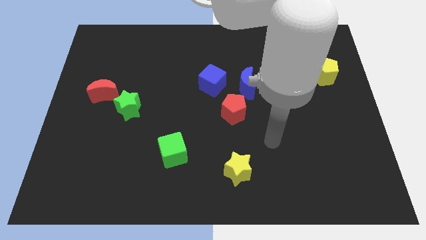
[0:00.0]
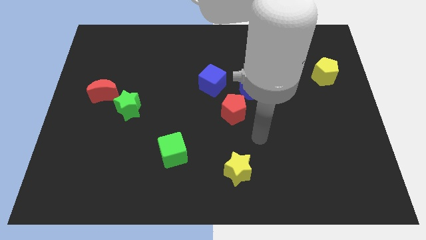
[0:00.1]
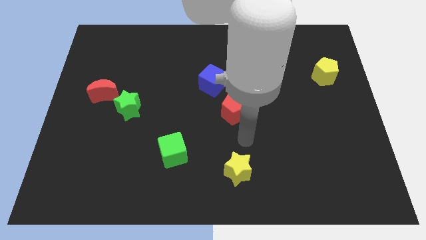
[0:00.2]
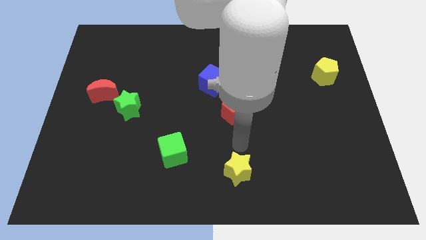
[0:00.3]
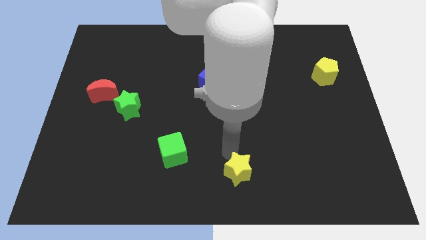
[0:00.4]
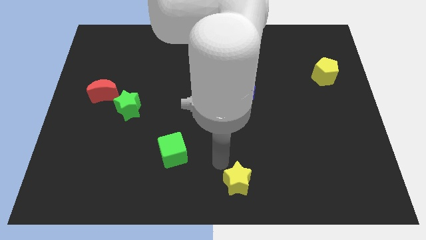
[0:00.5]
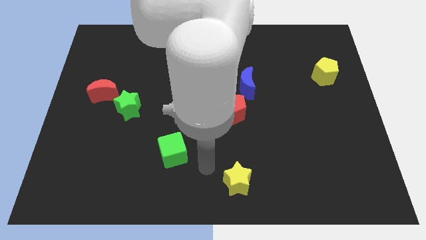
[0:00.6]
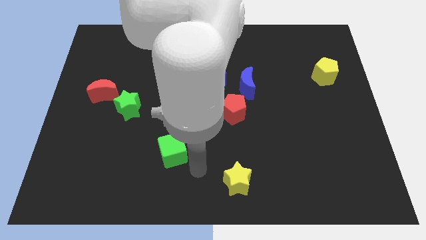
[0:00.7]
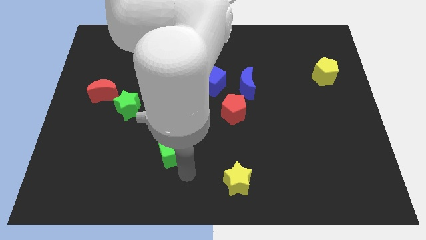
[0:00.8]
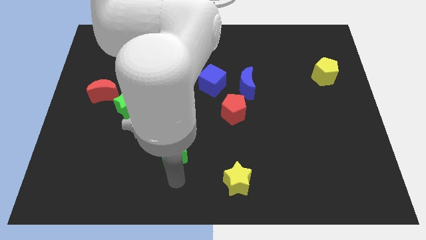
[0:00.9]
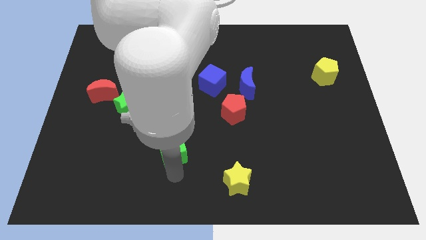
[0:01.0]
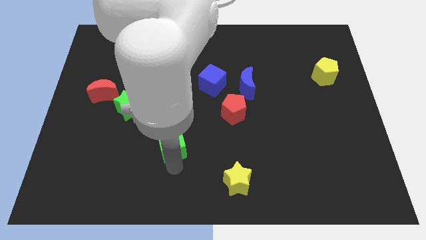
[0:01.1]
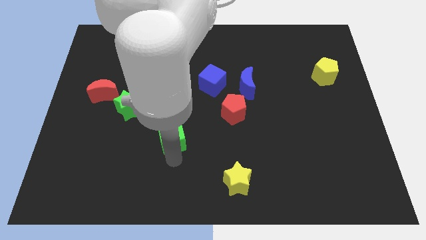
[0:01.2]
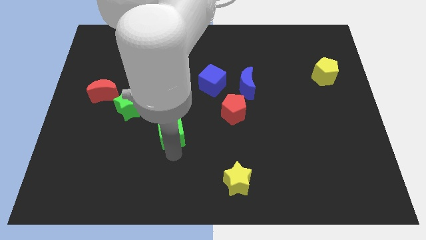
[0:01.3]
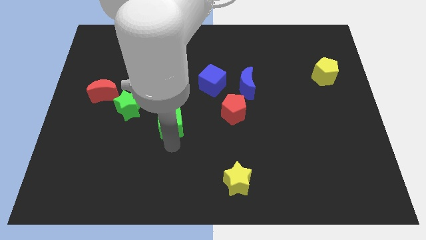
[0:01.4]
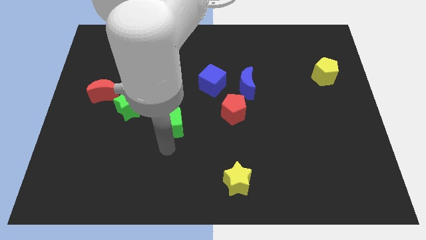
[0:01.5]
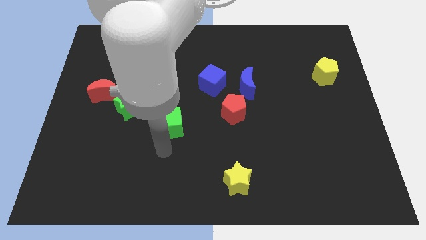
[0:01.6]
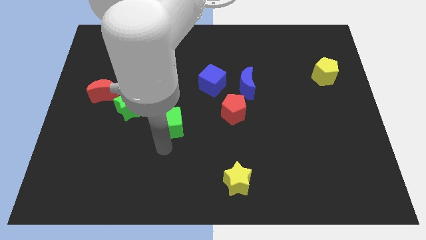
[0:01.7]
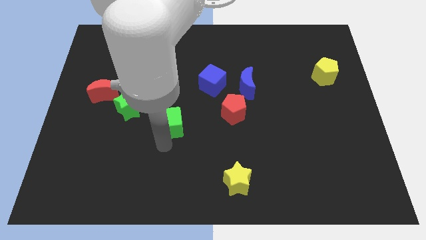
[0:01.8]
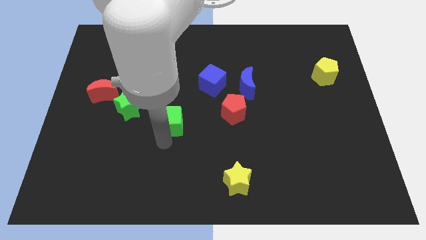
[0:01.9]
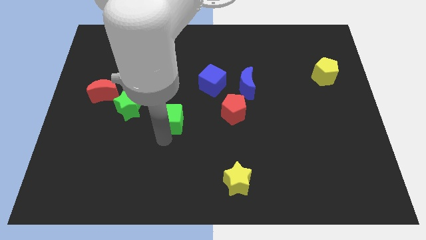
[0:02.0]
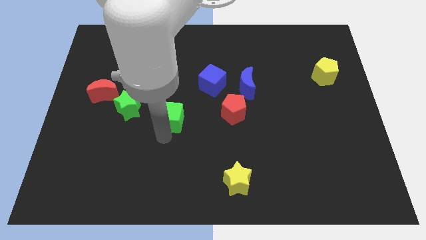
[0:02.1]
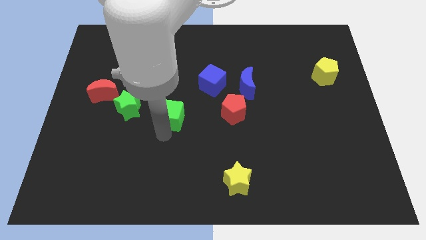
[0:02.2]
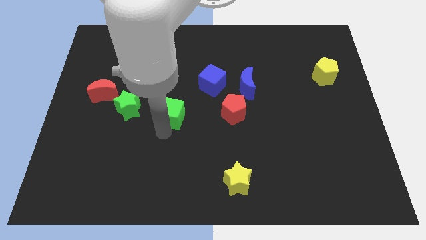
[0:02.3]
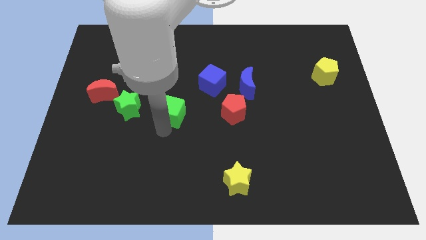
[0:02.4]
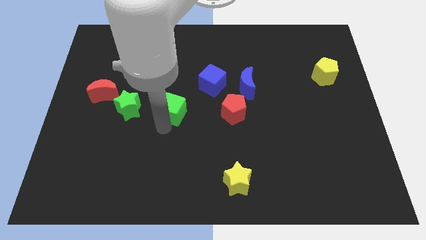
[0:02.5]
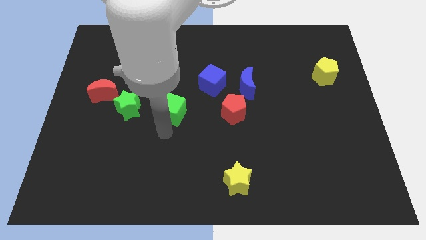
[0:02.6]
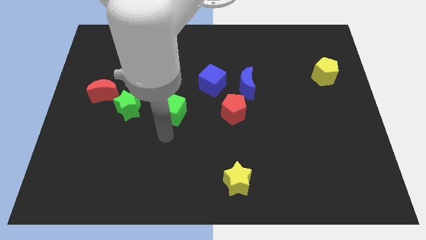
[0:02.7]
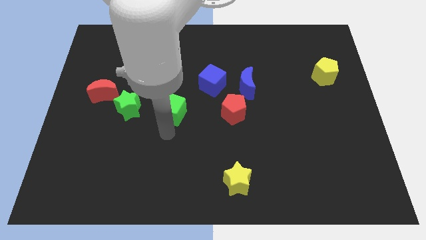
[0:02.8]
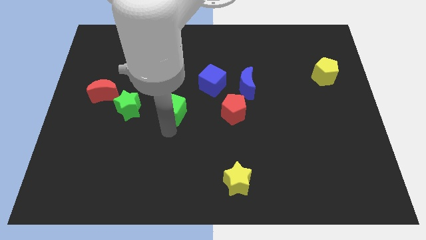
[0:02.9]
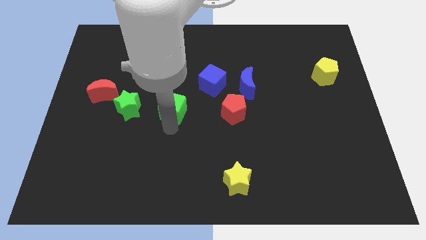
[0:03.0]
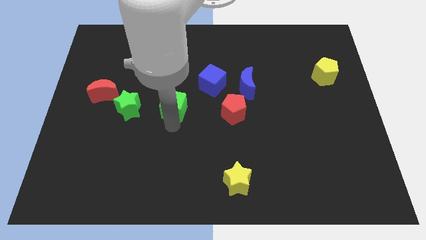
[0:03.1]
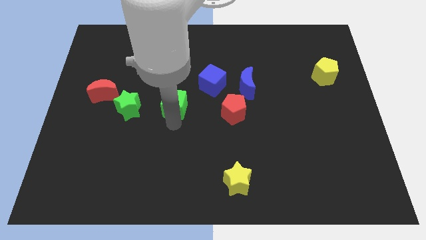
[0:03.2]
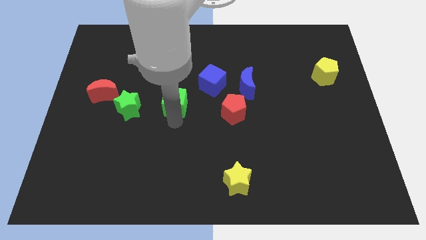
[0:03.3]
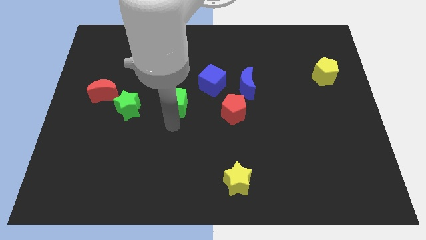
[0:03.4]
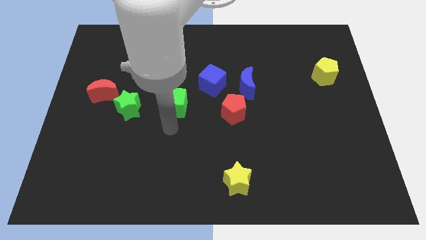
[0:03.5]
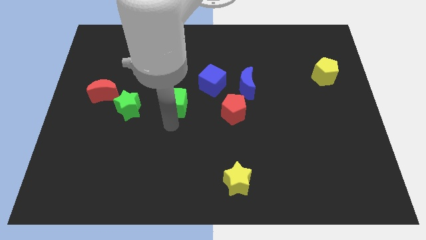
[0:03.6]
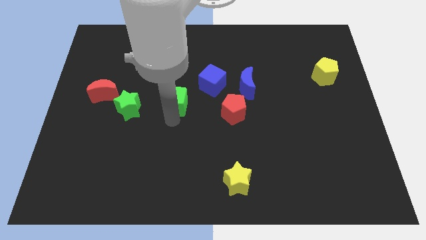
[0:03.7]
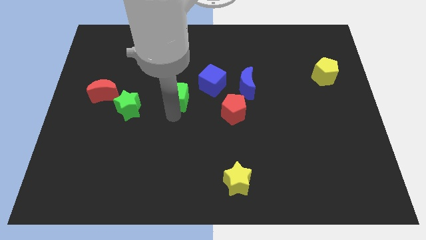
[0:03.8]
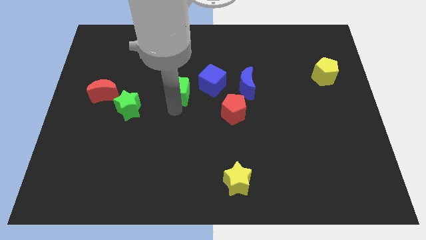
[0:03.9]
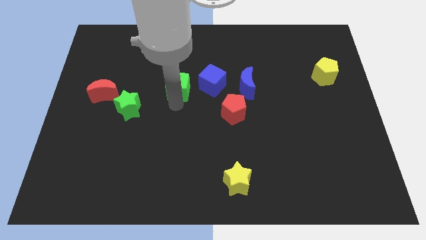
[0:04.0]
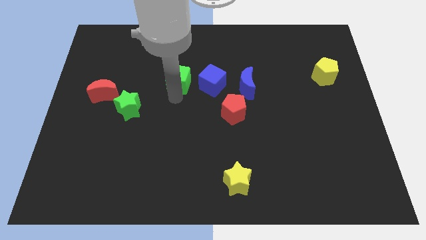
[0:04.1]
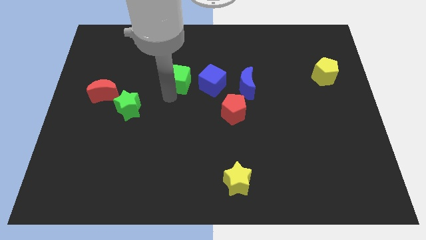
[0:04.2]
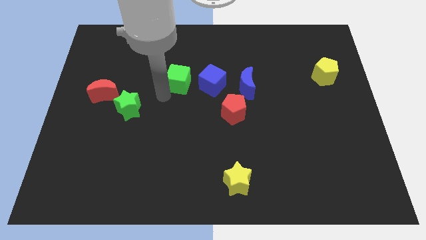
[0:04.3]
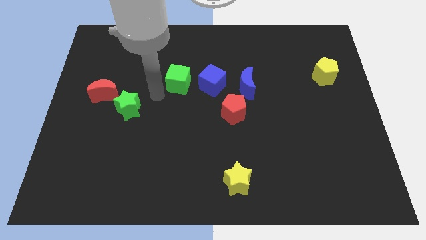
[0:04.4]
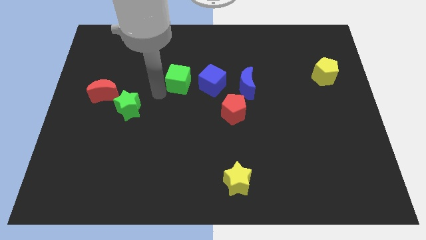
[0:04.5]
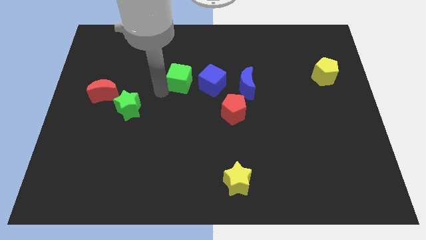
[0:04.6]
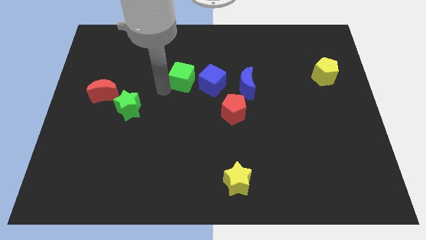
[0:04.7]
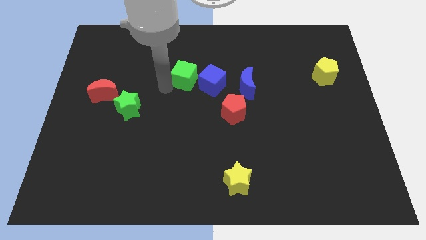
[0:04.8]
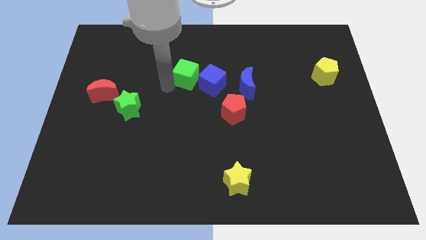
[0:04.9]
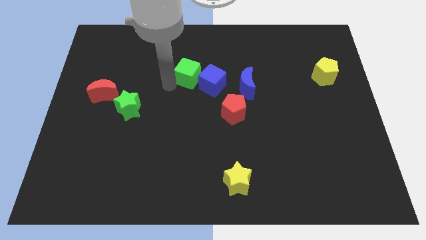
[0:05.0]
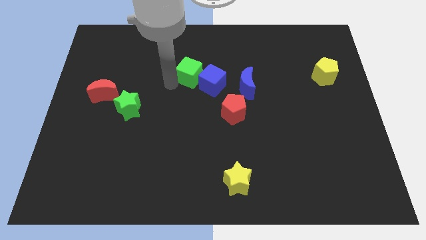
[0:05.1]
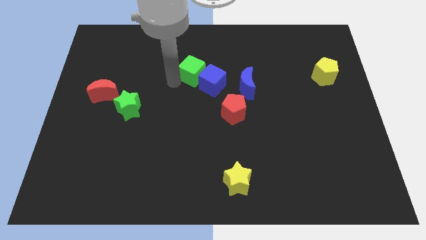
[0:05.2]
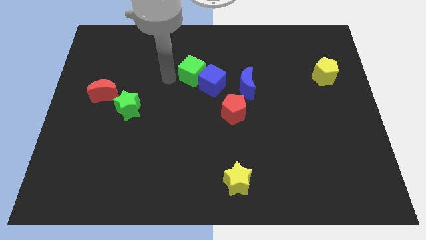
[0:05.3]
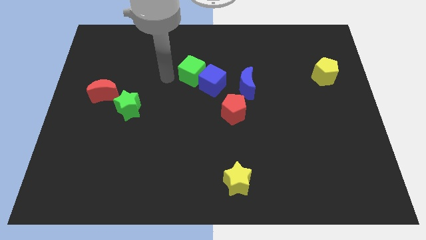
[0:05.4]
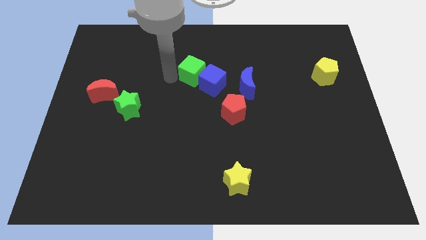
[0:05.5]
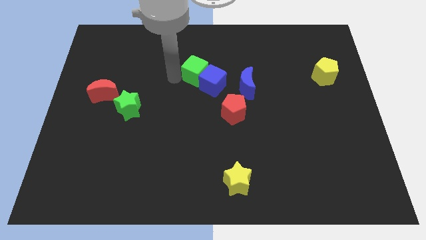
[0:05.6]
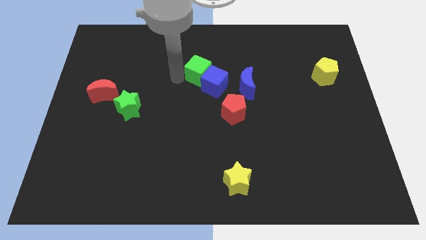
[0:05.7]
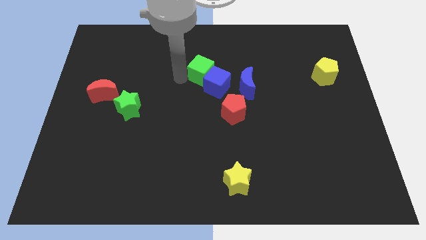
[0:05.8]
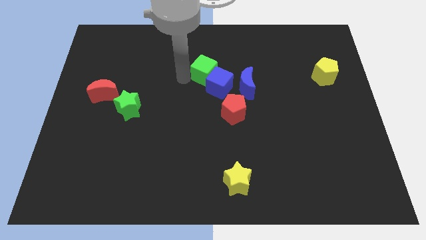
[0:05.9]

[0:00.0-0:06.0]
put the green cube to the top left side of the blue moon

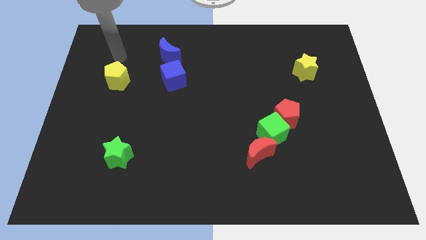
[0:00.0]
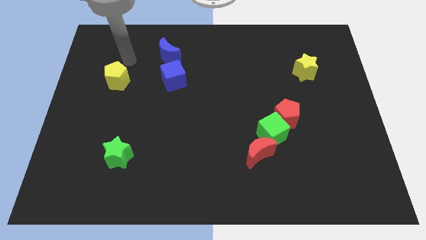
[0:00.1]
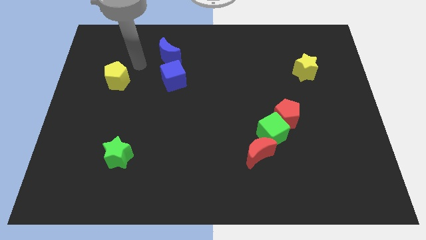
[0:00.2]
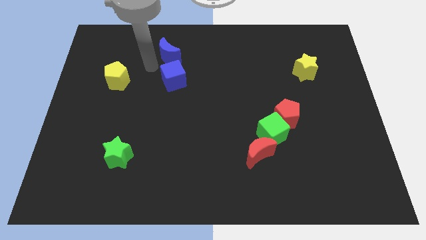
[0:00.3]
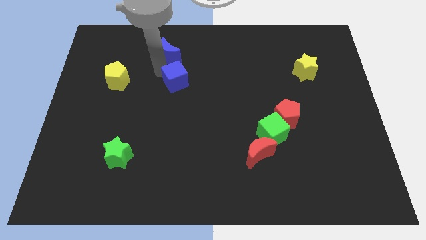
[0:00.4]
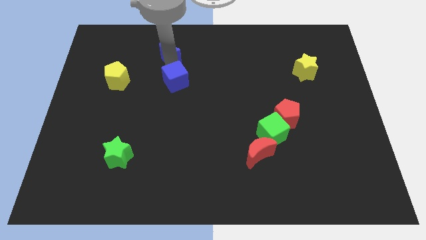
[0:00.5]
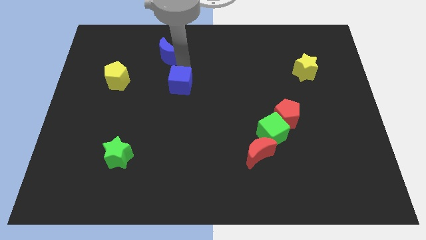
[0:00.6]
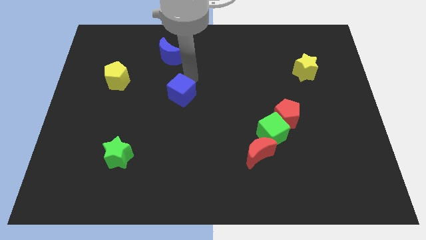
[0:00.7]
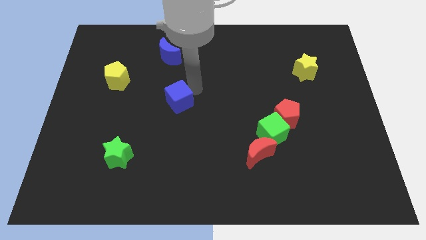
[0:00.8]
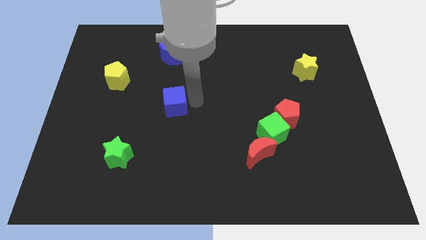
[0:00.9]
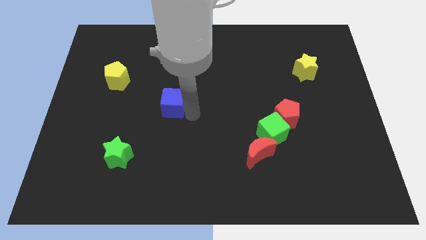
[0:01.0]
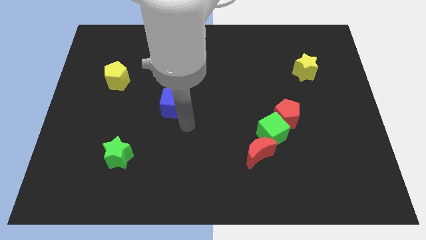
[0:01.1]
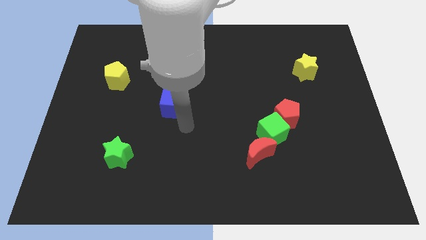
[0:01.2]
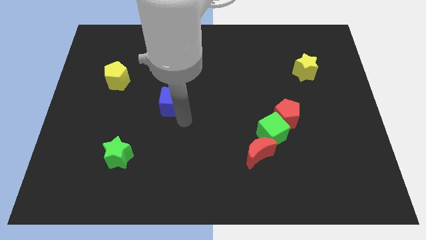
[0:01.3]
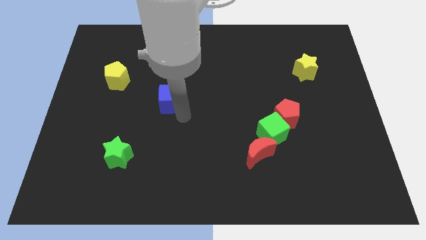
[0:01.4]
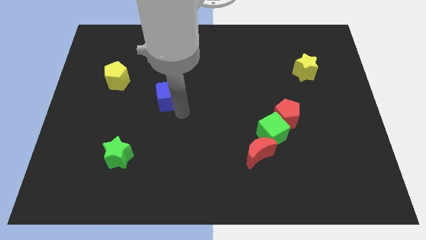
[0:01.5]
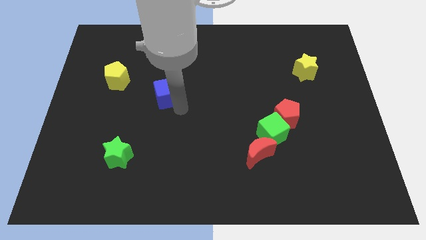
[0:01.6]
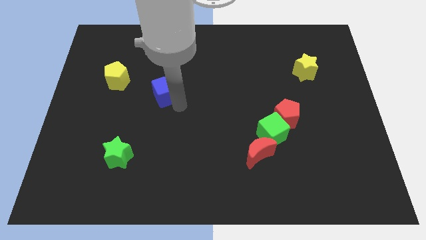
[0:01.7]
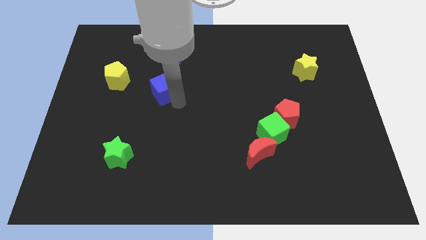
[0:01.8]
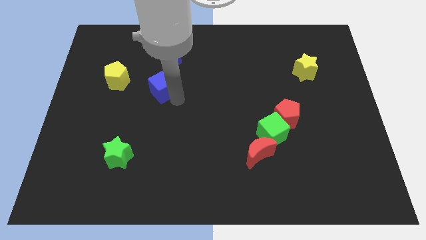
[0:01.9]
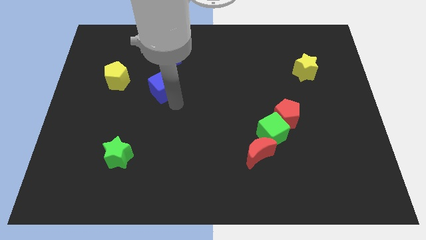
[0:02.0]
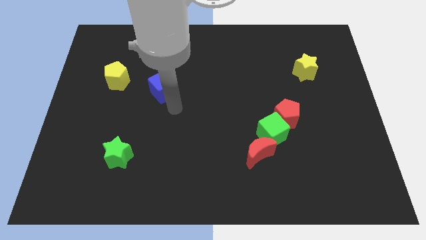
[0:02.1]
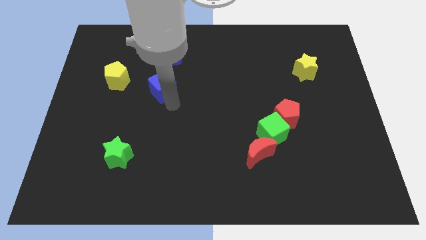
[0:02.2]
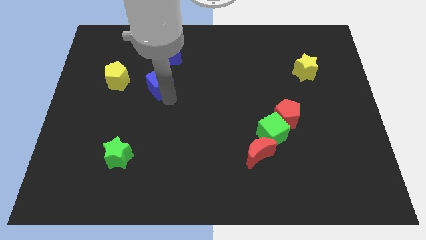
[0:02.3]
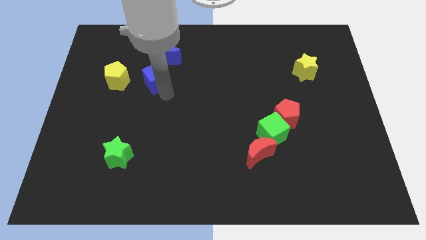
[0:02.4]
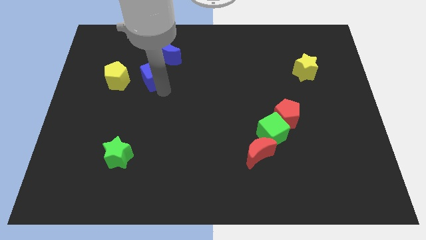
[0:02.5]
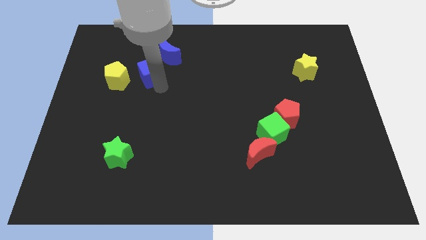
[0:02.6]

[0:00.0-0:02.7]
slide the blue cube to the top right of the yellow pentagon
